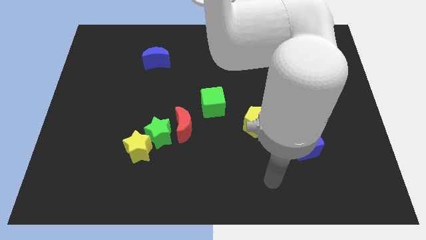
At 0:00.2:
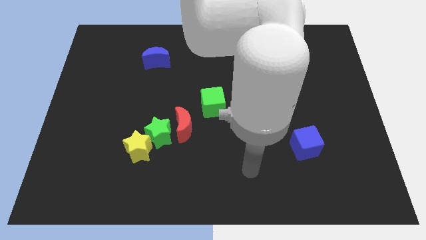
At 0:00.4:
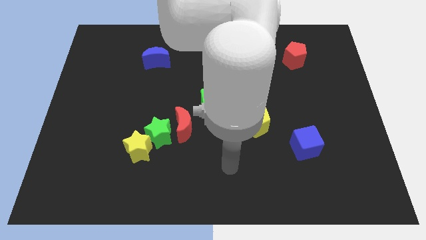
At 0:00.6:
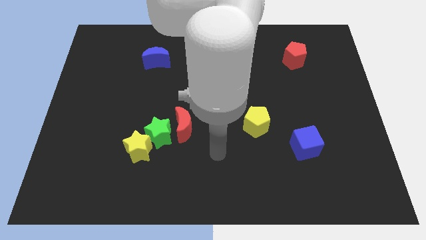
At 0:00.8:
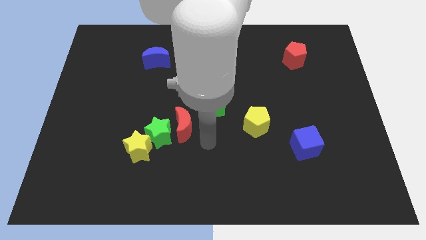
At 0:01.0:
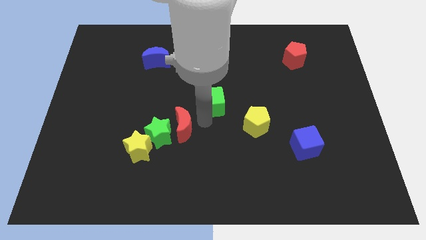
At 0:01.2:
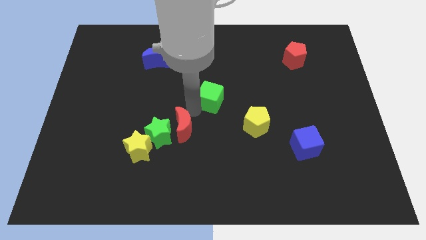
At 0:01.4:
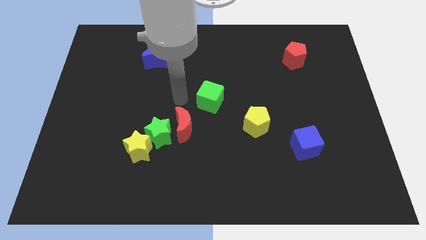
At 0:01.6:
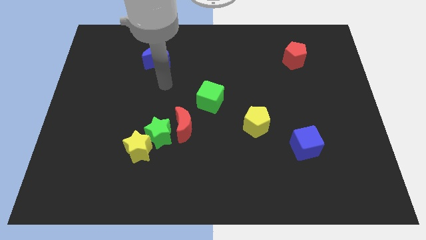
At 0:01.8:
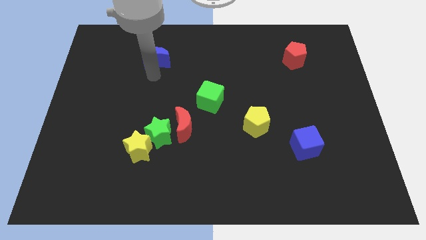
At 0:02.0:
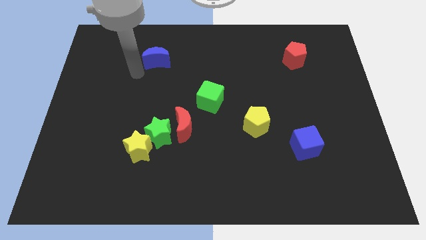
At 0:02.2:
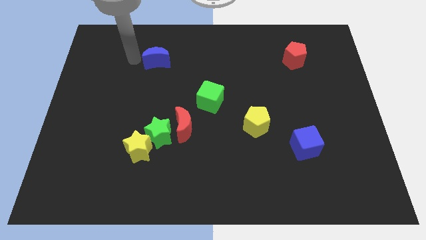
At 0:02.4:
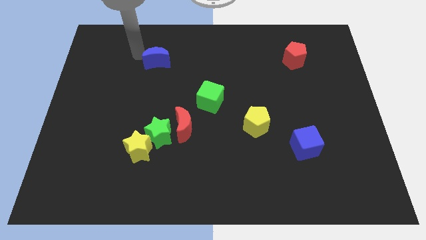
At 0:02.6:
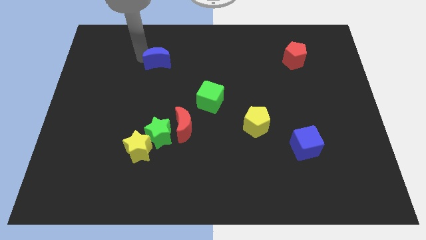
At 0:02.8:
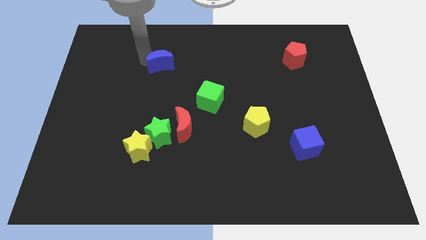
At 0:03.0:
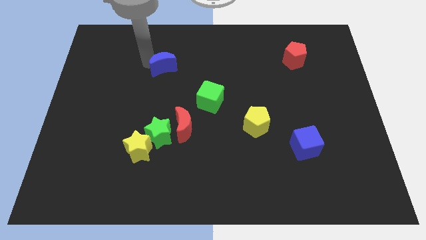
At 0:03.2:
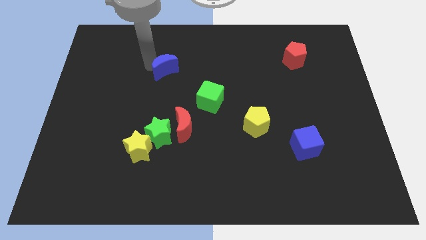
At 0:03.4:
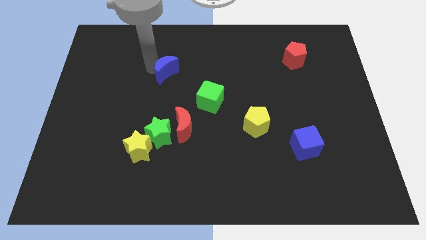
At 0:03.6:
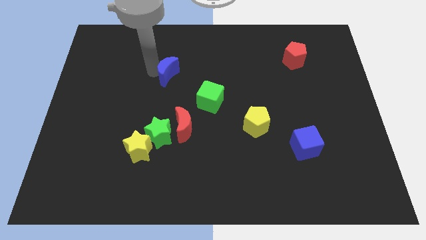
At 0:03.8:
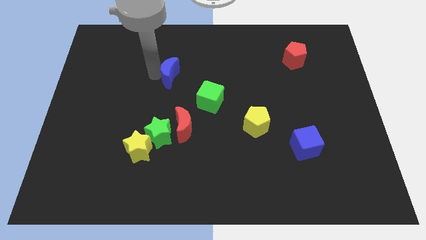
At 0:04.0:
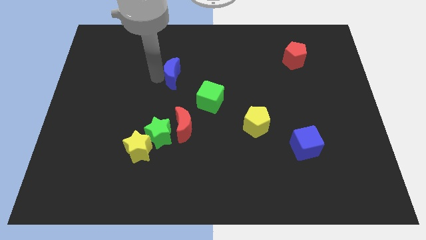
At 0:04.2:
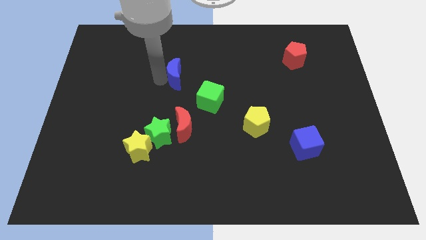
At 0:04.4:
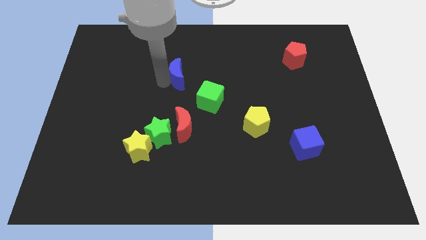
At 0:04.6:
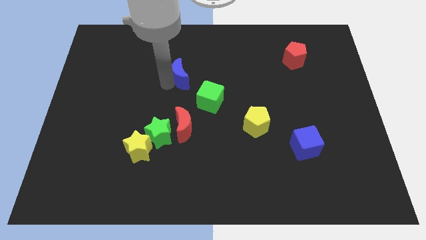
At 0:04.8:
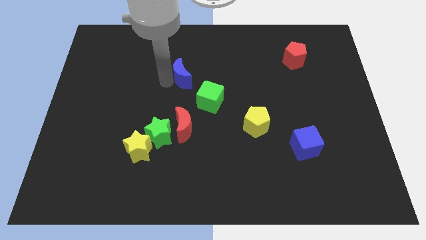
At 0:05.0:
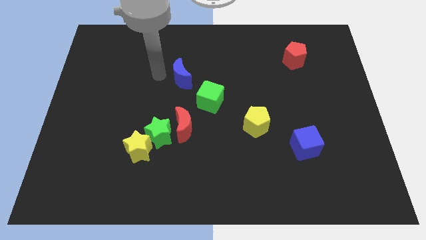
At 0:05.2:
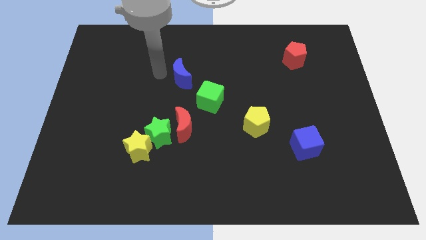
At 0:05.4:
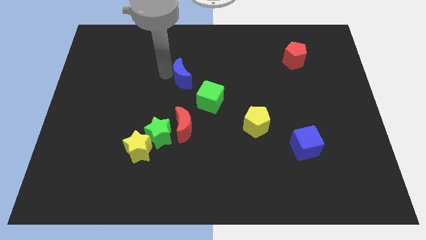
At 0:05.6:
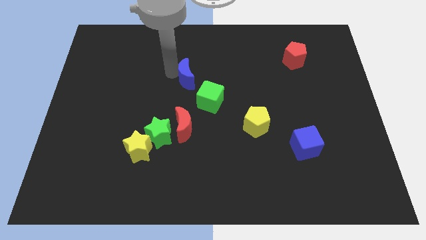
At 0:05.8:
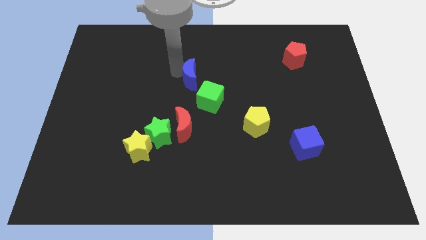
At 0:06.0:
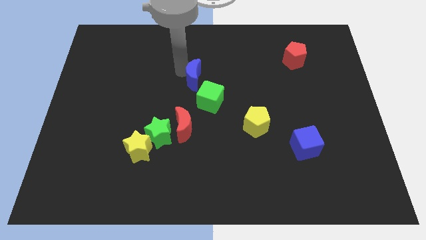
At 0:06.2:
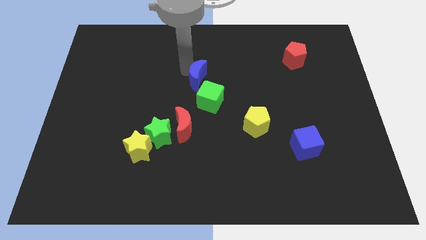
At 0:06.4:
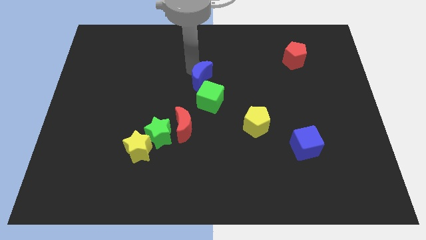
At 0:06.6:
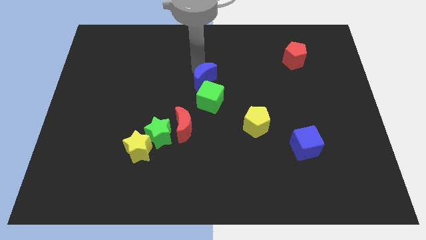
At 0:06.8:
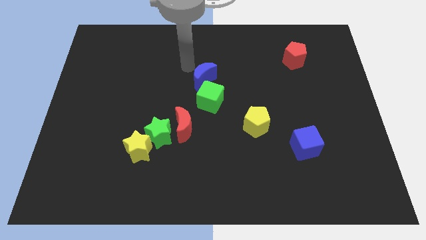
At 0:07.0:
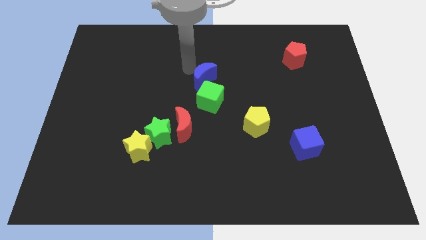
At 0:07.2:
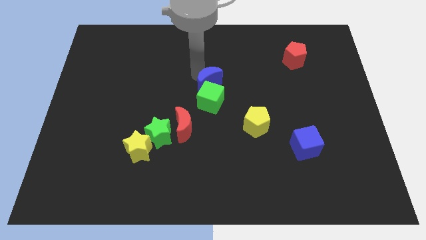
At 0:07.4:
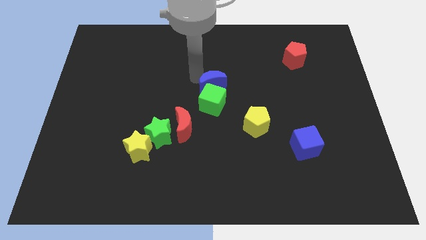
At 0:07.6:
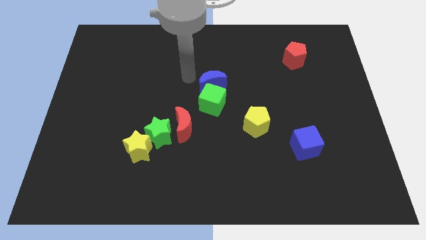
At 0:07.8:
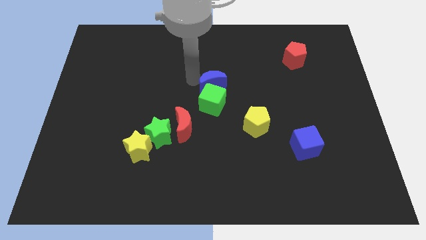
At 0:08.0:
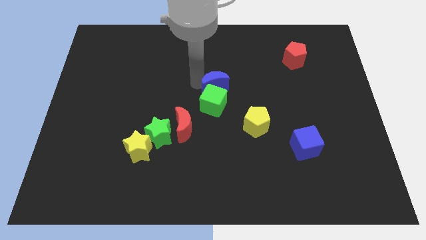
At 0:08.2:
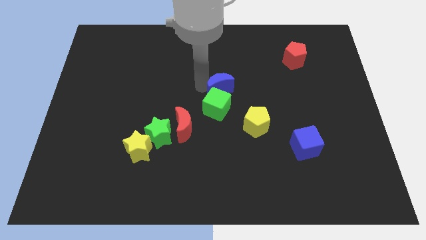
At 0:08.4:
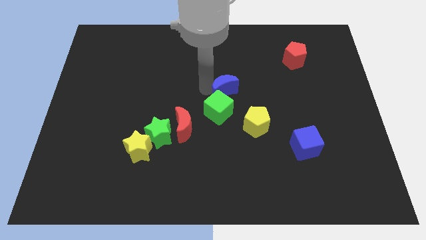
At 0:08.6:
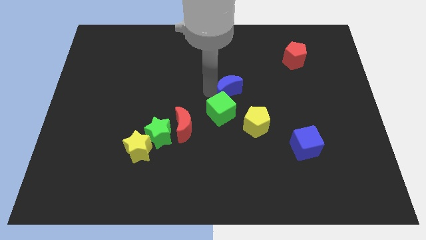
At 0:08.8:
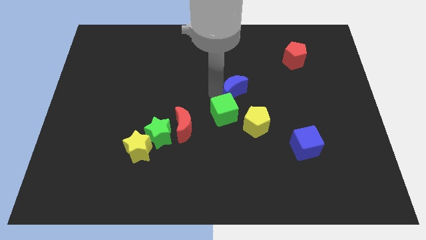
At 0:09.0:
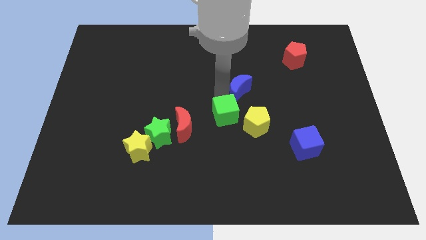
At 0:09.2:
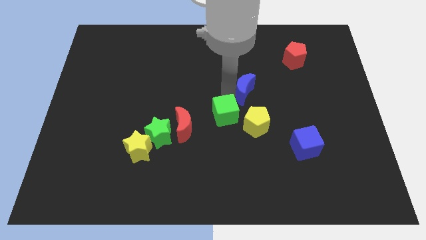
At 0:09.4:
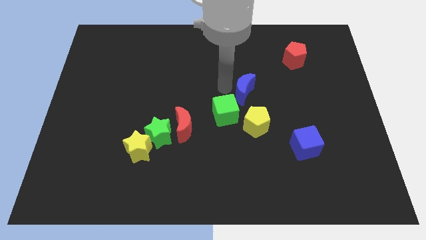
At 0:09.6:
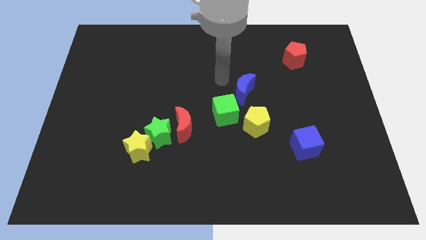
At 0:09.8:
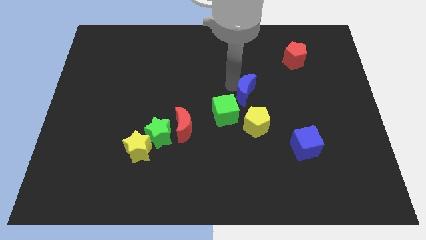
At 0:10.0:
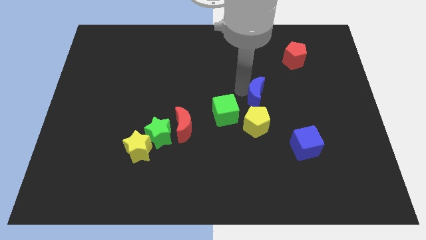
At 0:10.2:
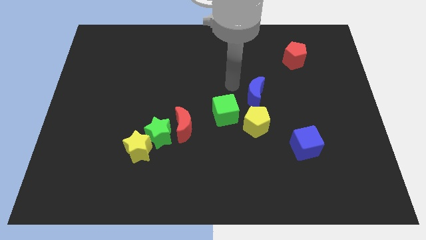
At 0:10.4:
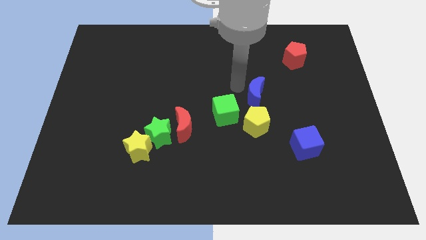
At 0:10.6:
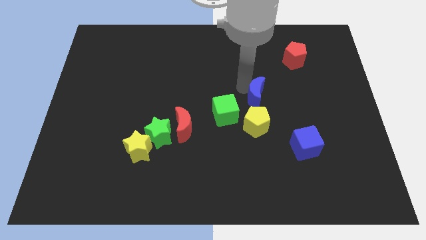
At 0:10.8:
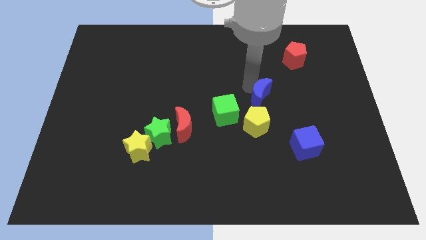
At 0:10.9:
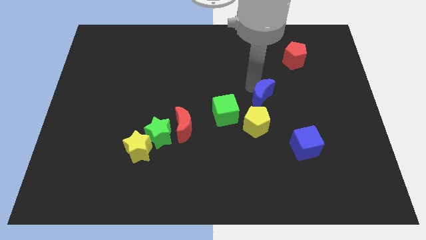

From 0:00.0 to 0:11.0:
slide the blue moon to the top right side of the yellow pentagon

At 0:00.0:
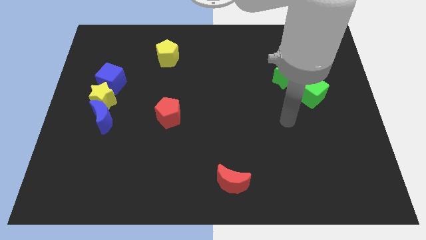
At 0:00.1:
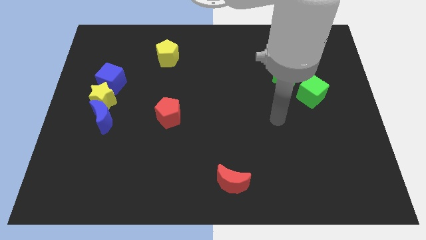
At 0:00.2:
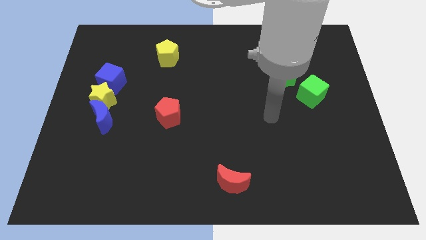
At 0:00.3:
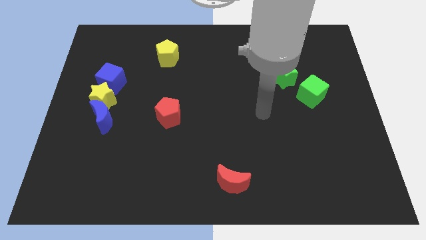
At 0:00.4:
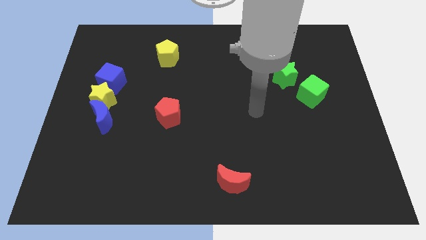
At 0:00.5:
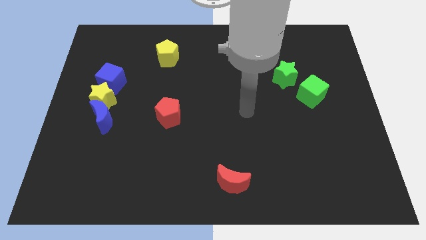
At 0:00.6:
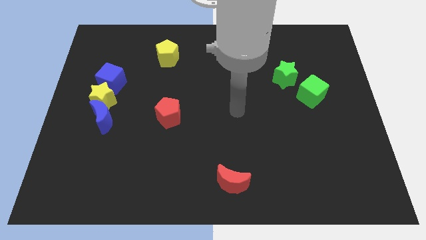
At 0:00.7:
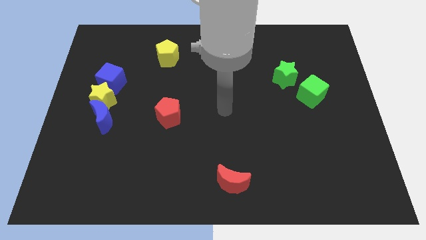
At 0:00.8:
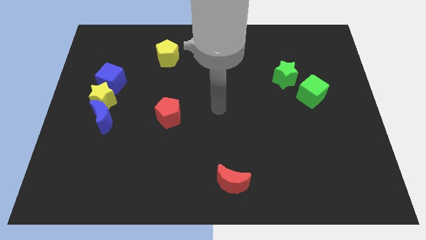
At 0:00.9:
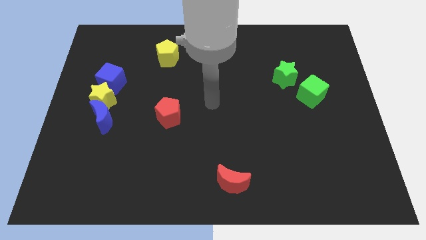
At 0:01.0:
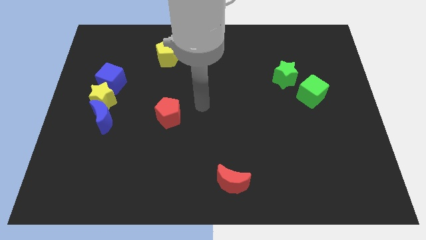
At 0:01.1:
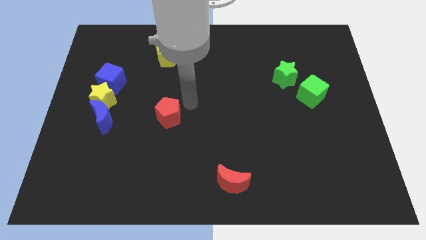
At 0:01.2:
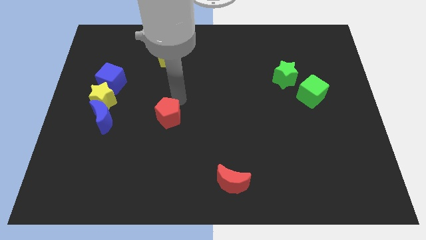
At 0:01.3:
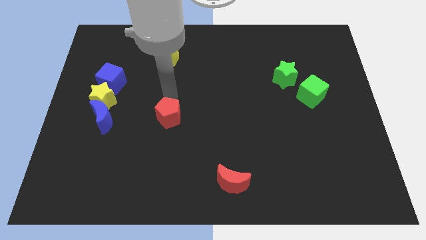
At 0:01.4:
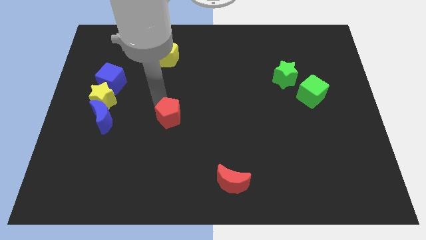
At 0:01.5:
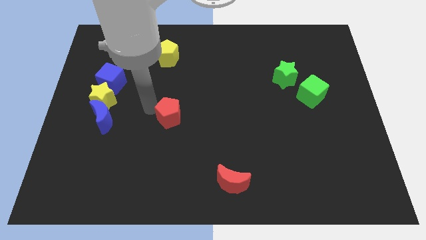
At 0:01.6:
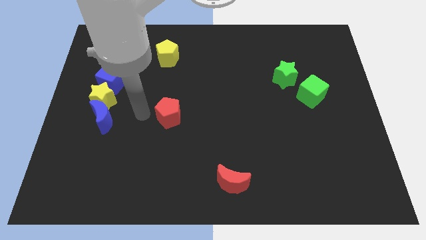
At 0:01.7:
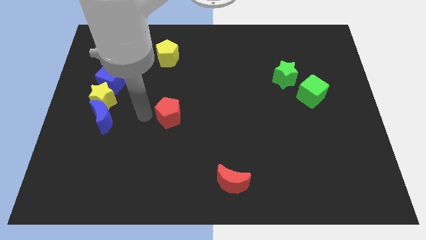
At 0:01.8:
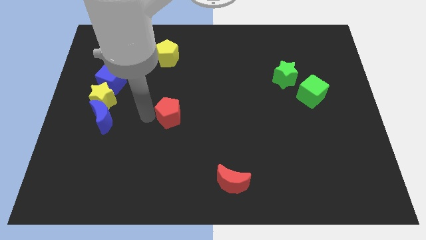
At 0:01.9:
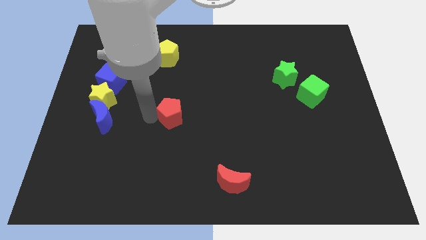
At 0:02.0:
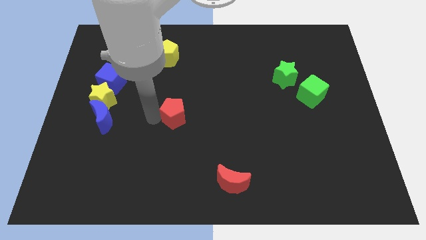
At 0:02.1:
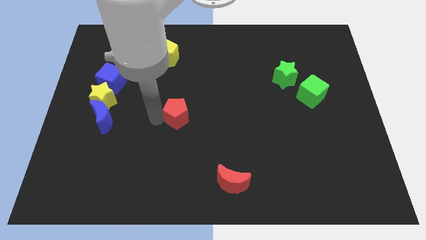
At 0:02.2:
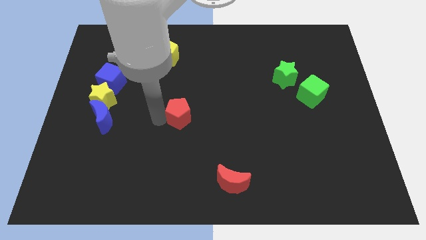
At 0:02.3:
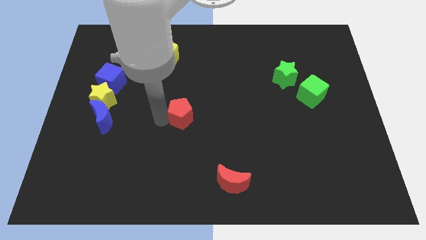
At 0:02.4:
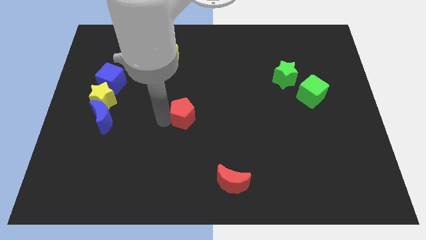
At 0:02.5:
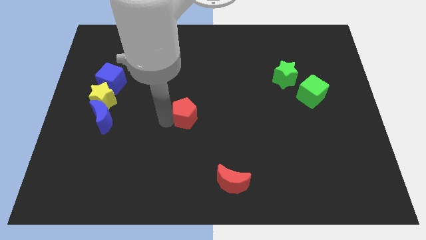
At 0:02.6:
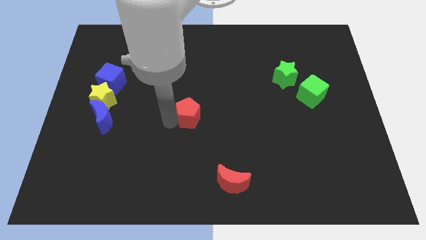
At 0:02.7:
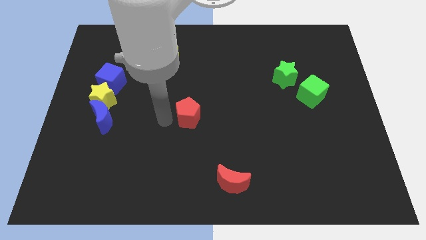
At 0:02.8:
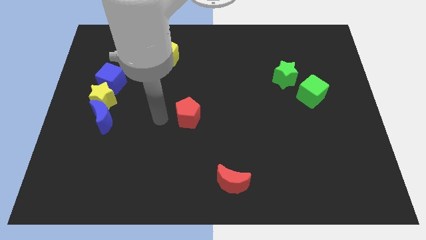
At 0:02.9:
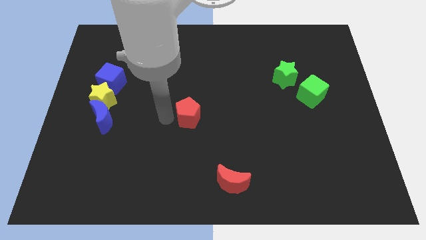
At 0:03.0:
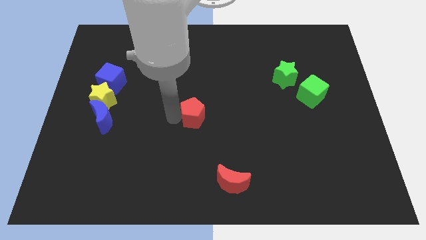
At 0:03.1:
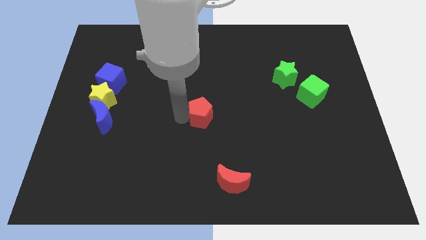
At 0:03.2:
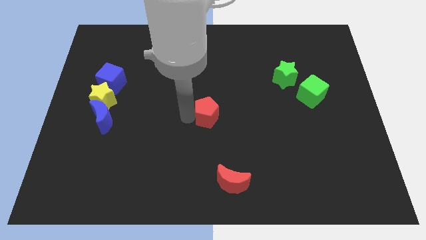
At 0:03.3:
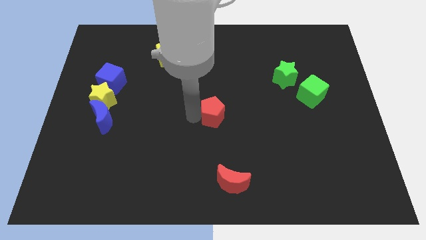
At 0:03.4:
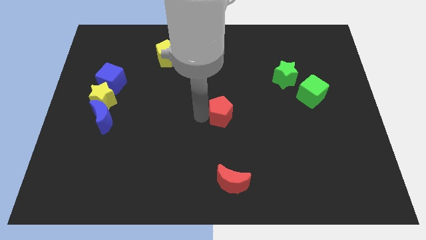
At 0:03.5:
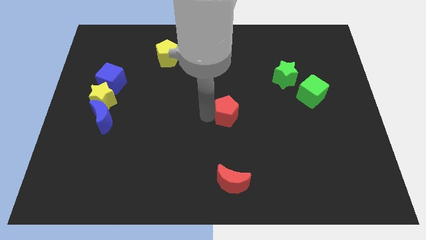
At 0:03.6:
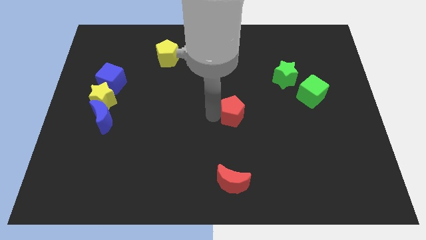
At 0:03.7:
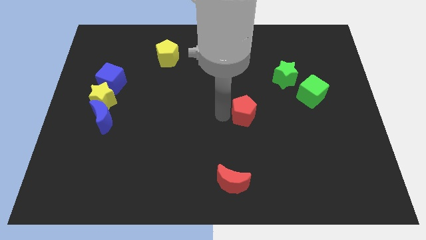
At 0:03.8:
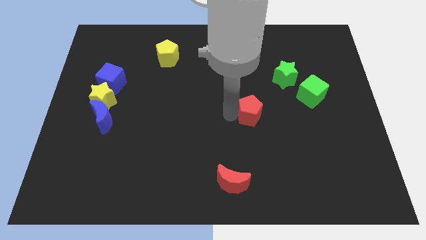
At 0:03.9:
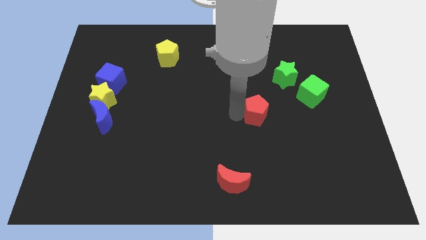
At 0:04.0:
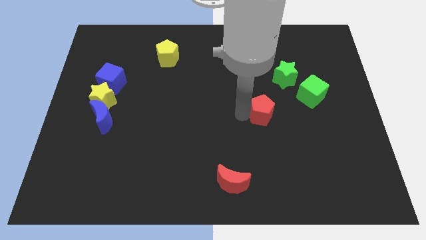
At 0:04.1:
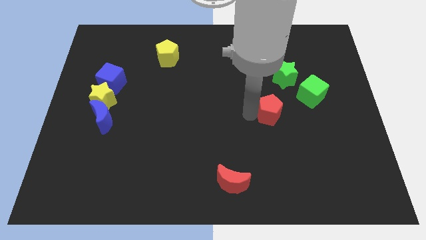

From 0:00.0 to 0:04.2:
put the red pentagon to the bottom side of the green star
